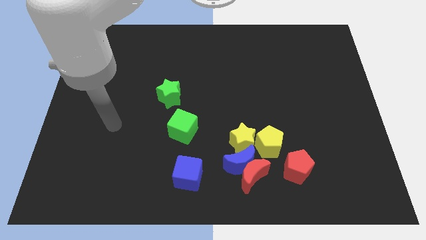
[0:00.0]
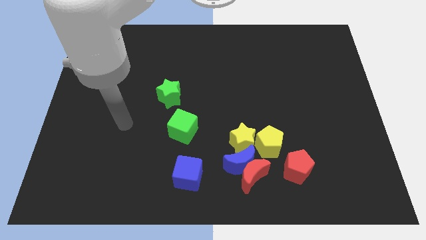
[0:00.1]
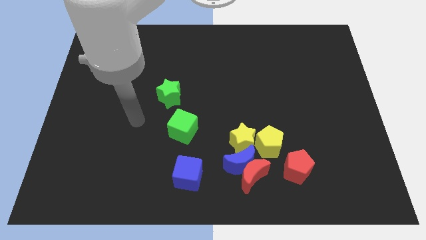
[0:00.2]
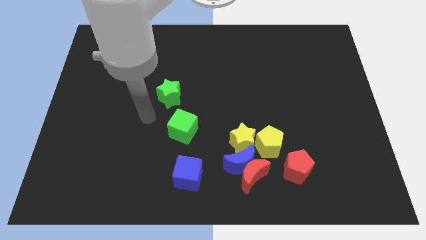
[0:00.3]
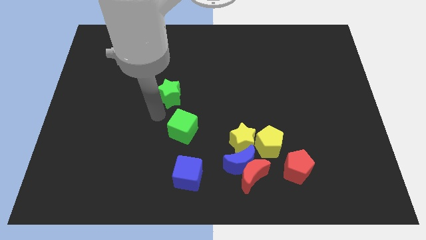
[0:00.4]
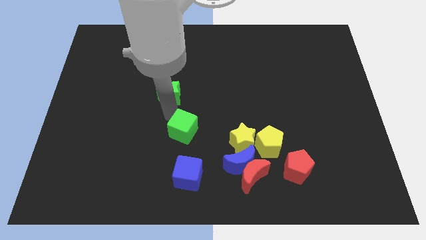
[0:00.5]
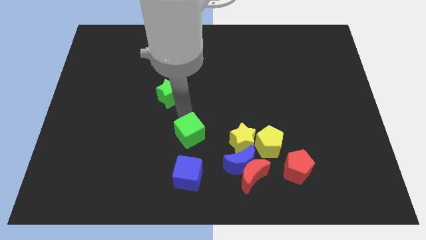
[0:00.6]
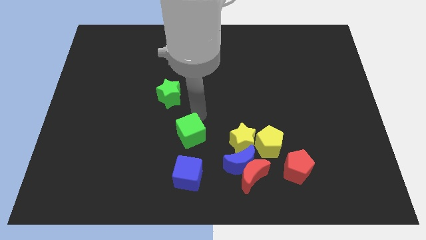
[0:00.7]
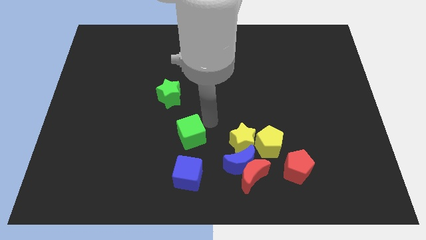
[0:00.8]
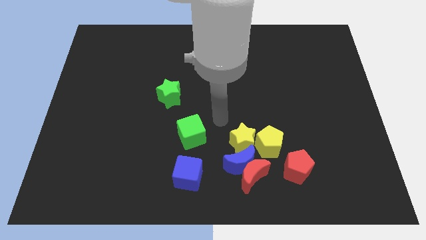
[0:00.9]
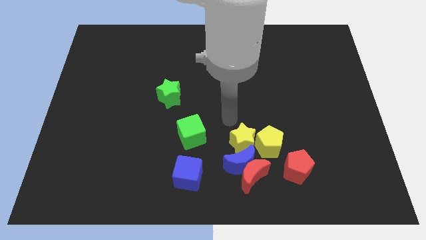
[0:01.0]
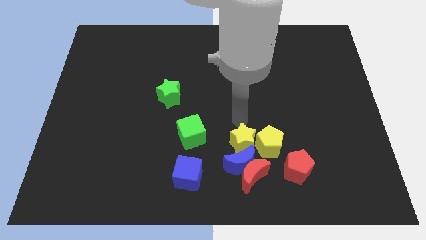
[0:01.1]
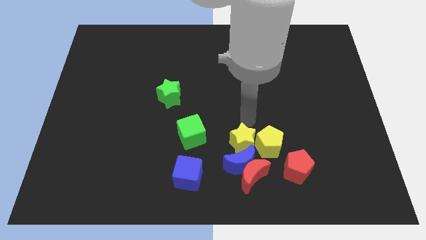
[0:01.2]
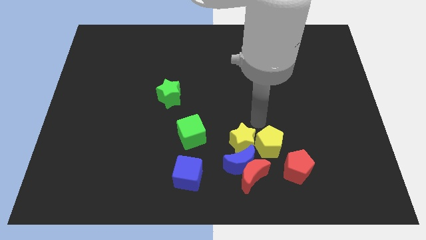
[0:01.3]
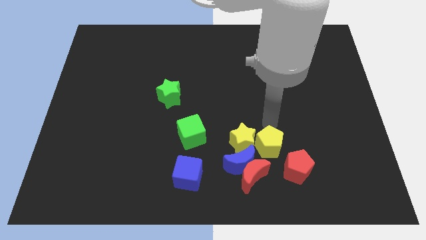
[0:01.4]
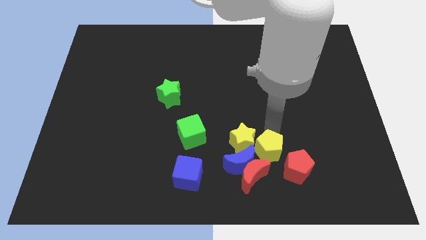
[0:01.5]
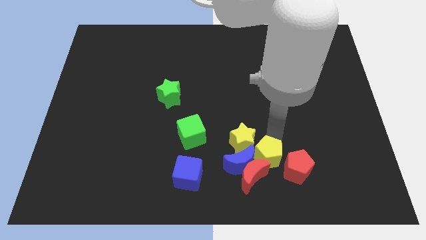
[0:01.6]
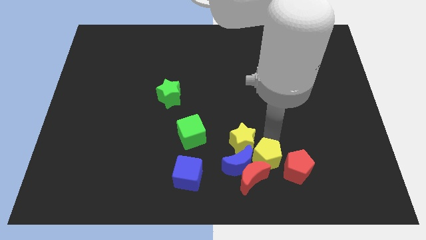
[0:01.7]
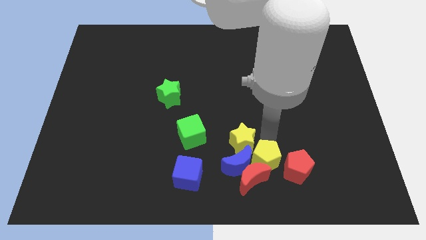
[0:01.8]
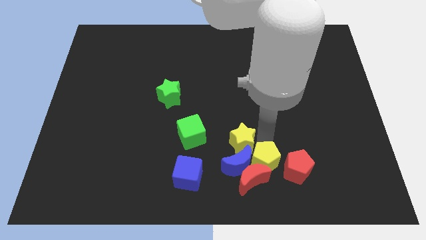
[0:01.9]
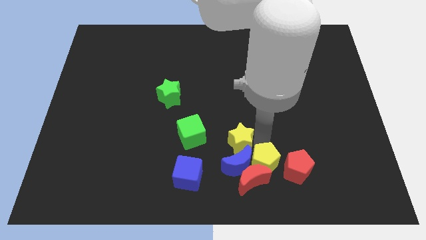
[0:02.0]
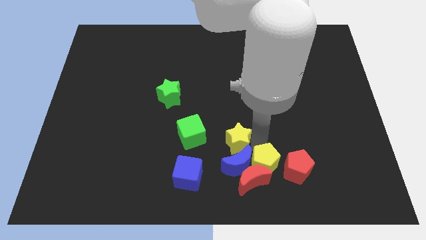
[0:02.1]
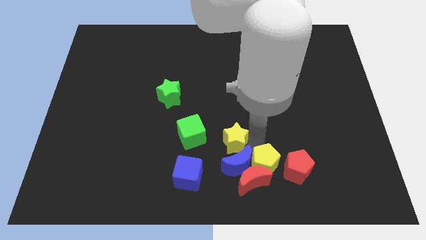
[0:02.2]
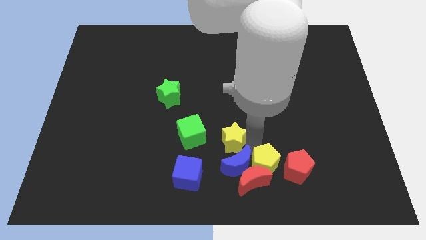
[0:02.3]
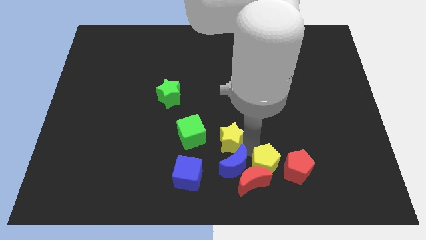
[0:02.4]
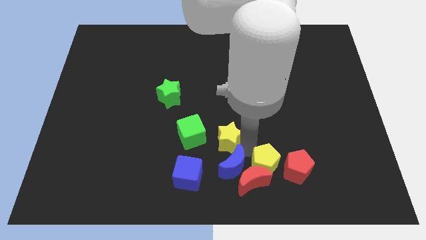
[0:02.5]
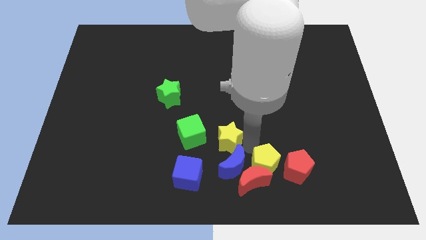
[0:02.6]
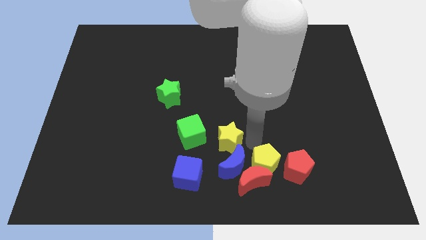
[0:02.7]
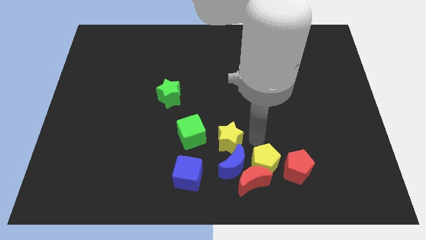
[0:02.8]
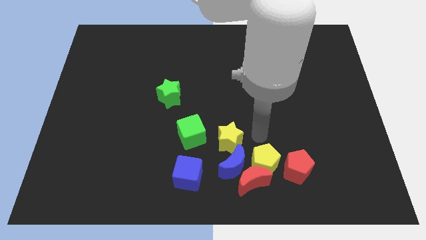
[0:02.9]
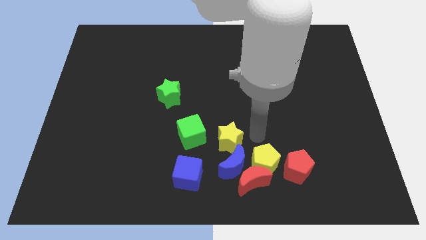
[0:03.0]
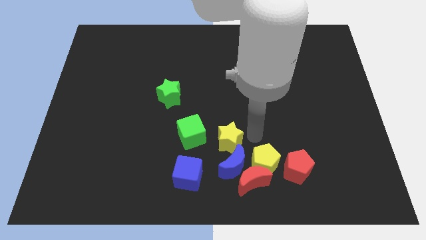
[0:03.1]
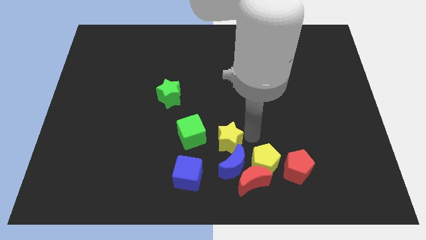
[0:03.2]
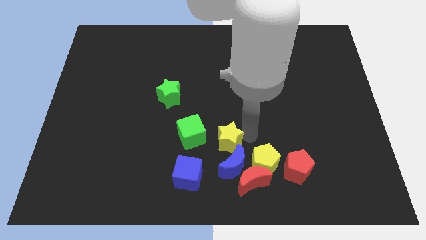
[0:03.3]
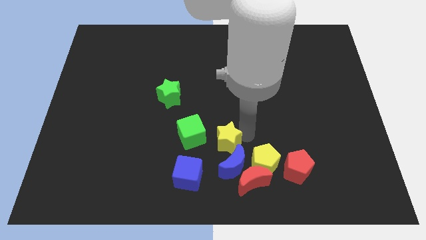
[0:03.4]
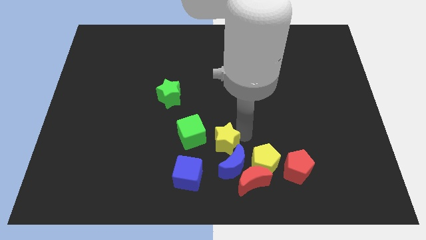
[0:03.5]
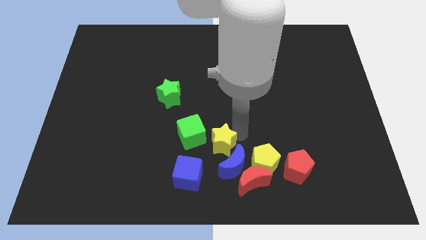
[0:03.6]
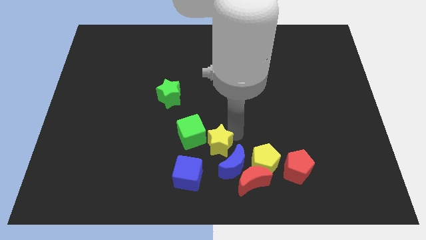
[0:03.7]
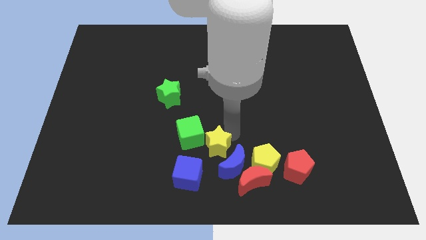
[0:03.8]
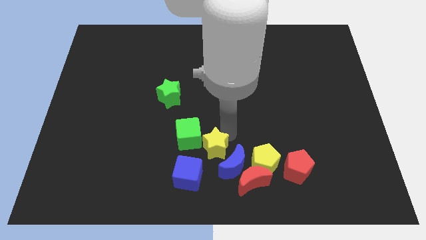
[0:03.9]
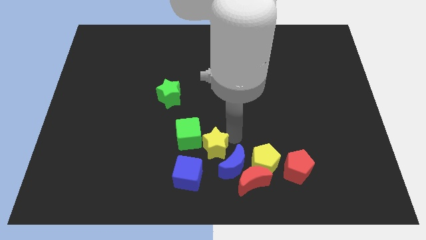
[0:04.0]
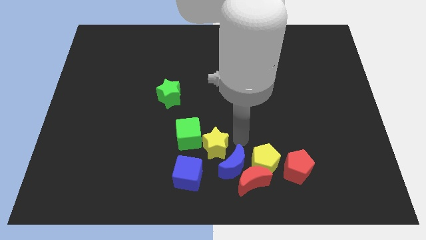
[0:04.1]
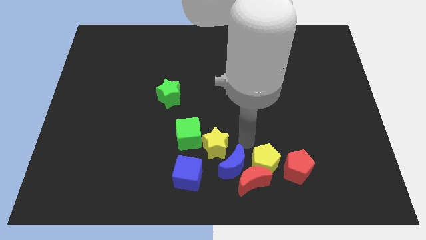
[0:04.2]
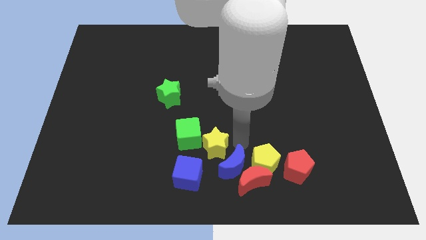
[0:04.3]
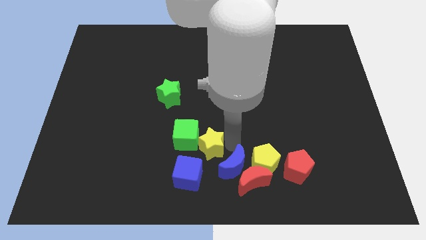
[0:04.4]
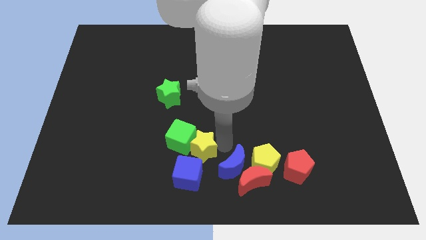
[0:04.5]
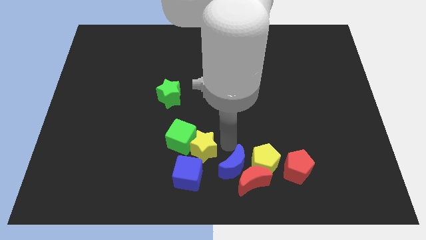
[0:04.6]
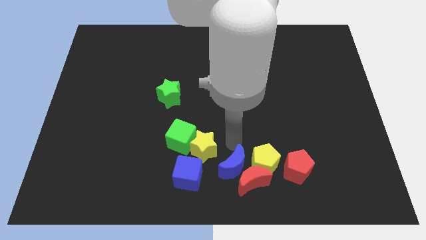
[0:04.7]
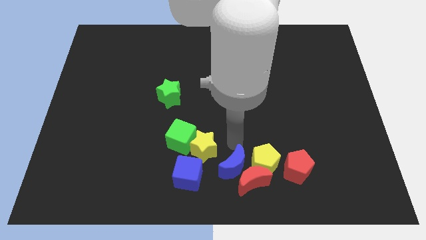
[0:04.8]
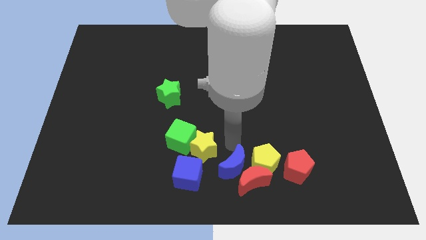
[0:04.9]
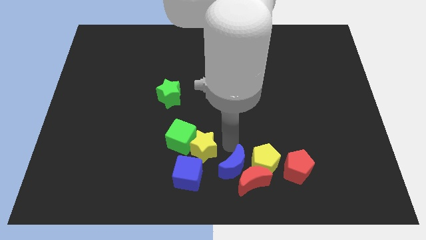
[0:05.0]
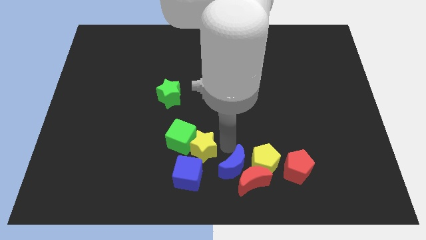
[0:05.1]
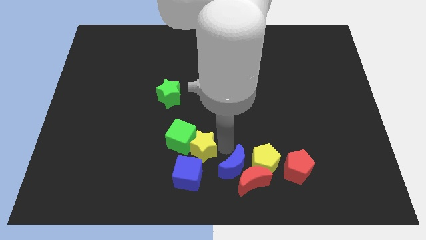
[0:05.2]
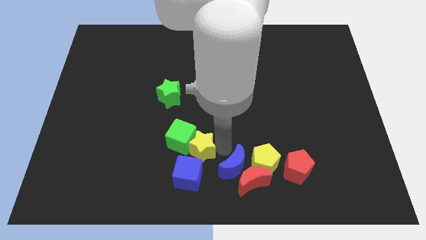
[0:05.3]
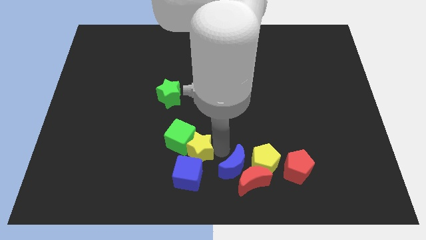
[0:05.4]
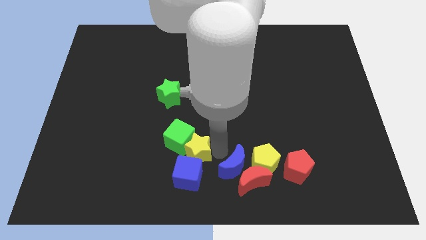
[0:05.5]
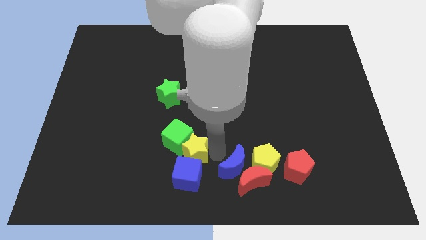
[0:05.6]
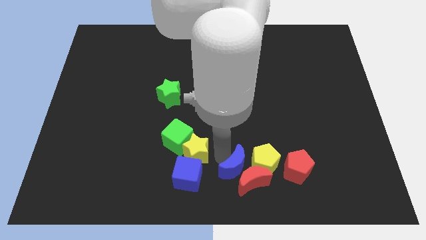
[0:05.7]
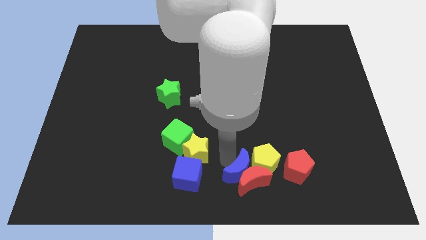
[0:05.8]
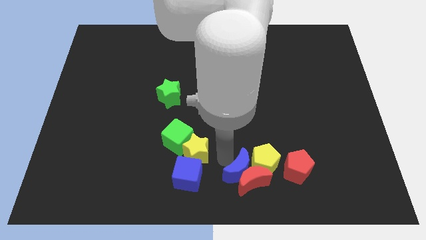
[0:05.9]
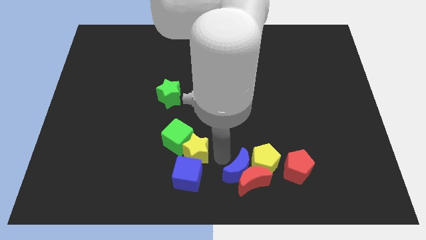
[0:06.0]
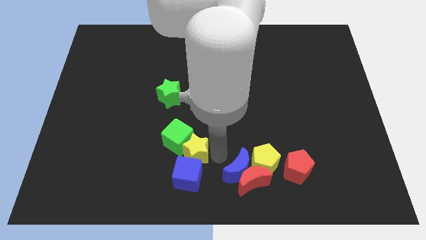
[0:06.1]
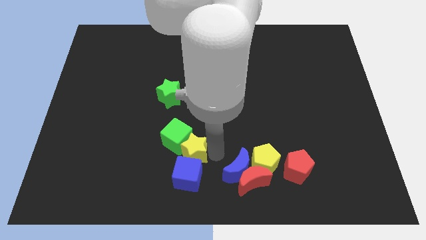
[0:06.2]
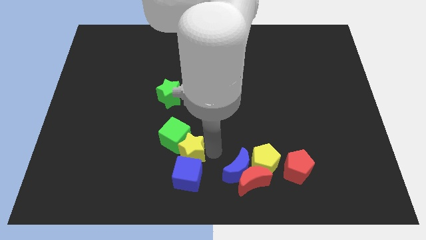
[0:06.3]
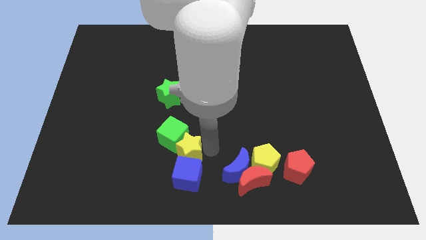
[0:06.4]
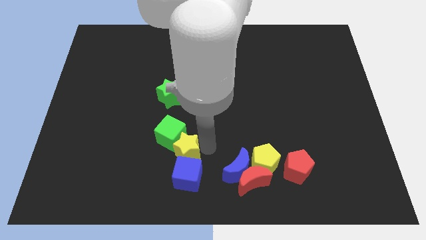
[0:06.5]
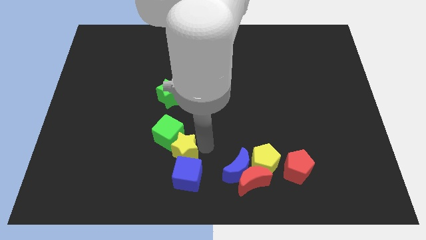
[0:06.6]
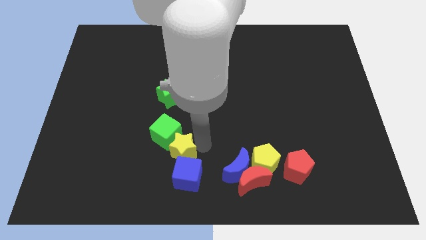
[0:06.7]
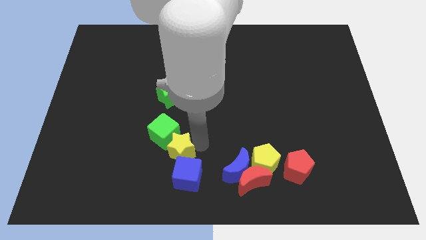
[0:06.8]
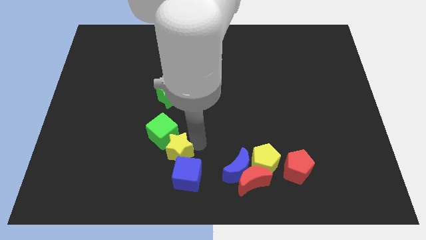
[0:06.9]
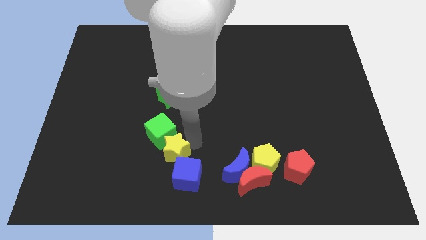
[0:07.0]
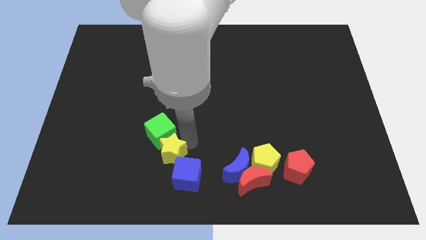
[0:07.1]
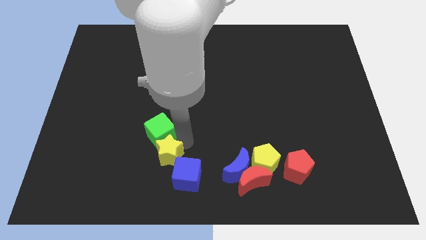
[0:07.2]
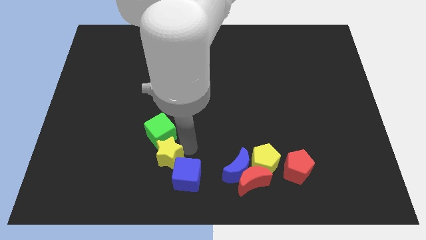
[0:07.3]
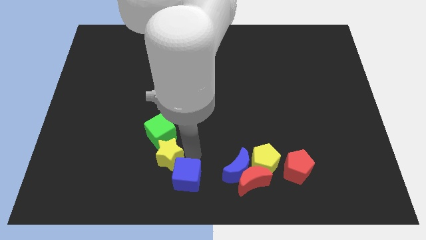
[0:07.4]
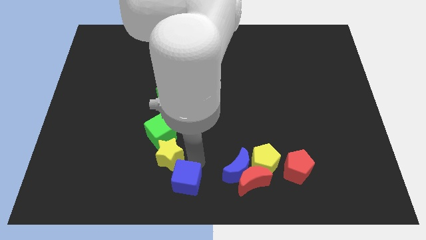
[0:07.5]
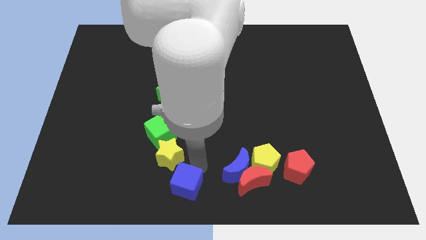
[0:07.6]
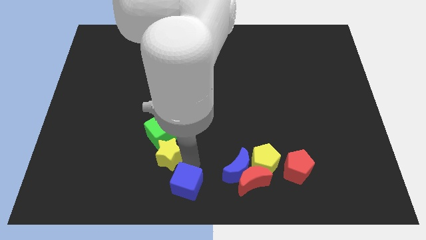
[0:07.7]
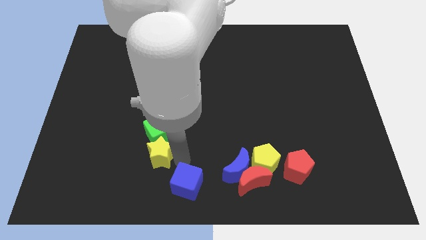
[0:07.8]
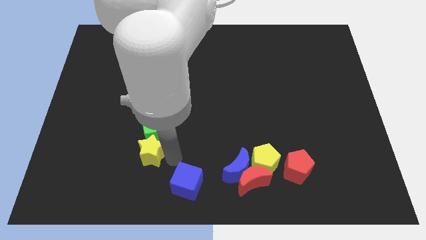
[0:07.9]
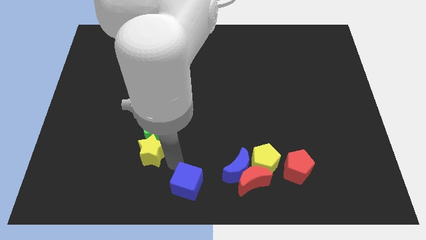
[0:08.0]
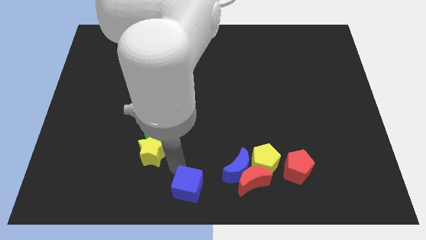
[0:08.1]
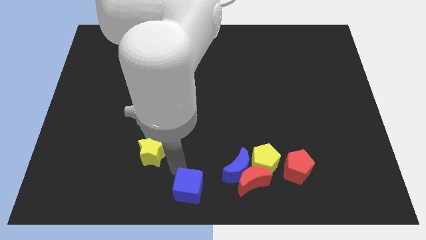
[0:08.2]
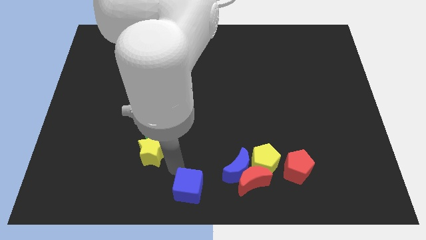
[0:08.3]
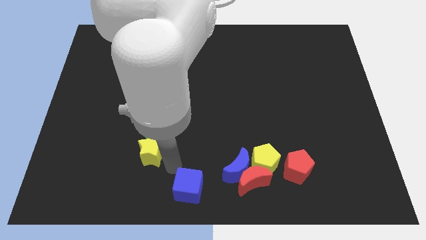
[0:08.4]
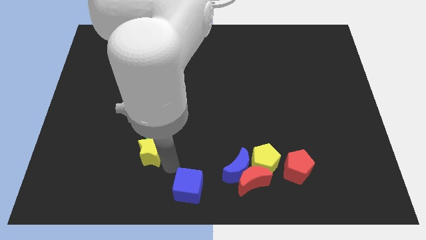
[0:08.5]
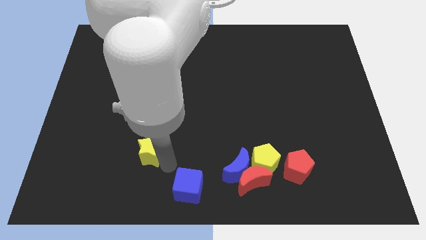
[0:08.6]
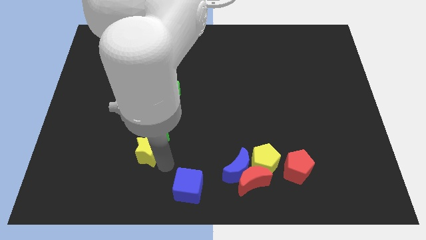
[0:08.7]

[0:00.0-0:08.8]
push the yellow star left
